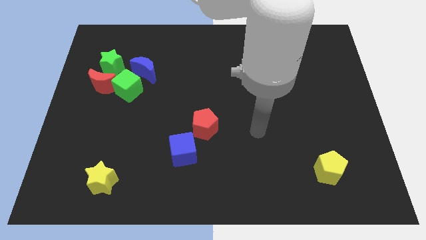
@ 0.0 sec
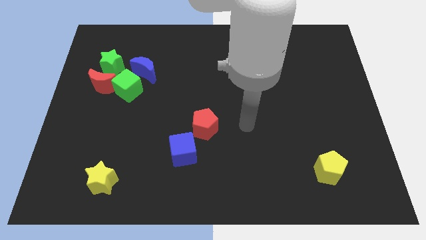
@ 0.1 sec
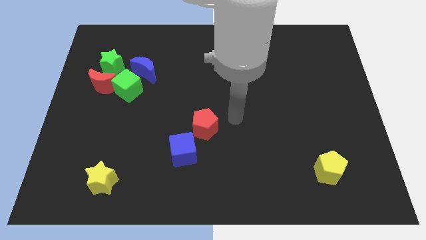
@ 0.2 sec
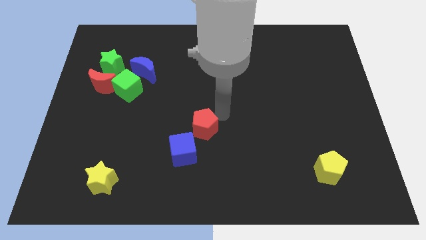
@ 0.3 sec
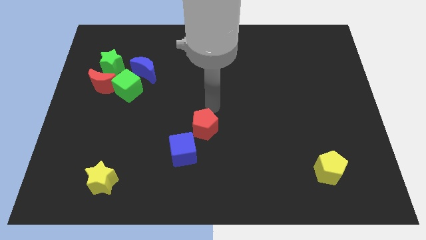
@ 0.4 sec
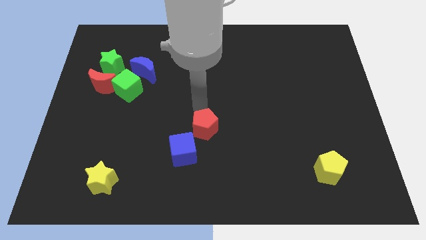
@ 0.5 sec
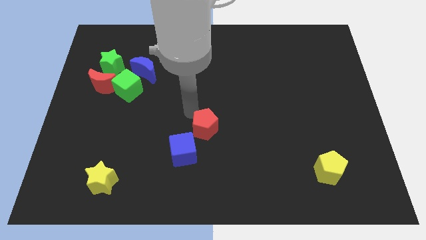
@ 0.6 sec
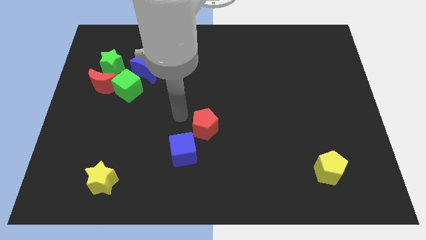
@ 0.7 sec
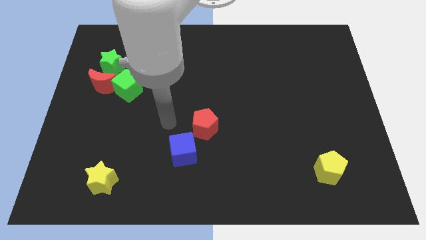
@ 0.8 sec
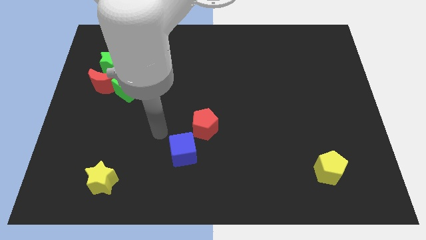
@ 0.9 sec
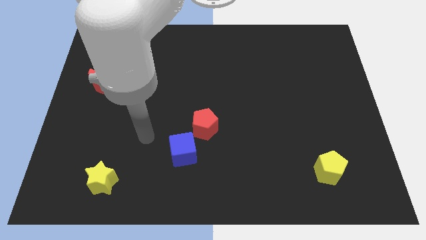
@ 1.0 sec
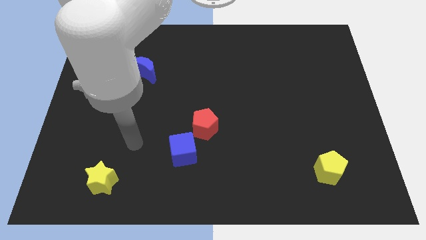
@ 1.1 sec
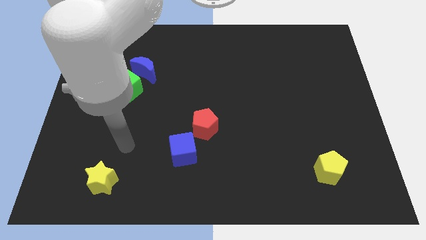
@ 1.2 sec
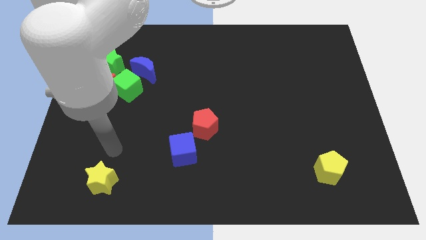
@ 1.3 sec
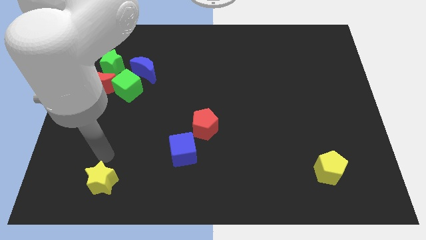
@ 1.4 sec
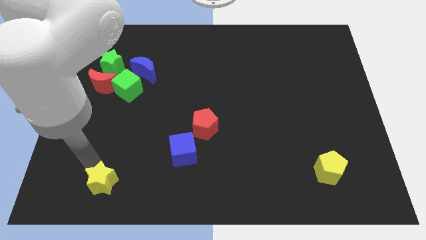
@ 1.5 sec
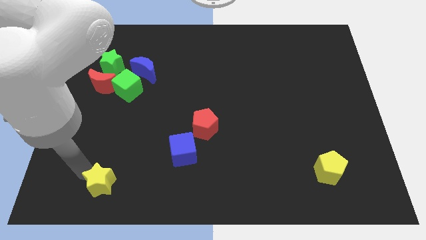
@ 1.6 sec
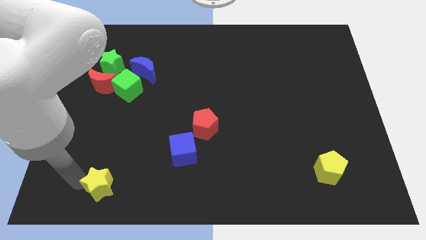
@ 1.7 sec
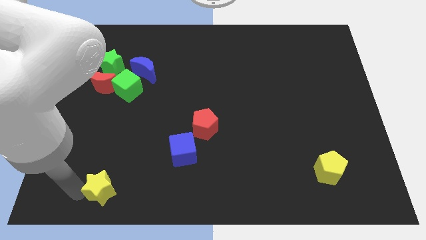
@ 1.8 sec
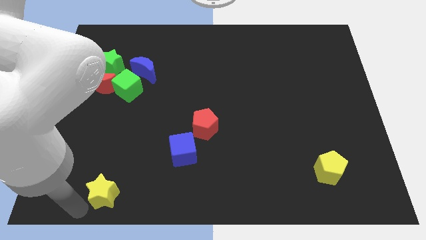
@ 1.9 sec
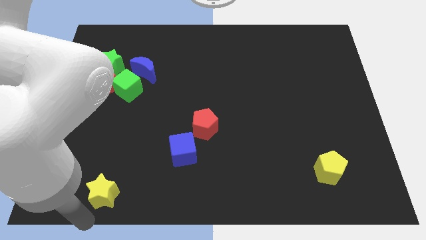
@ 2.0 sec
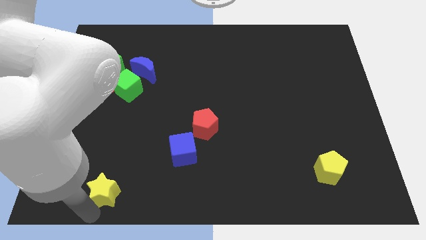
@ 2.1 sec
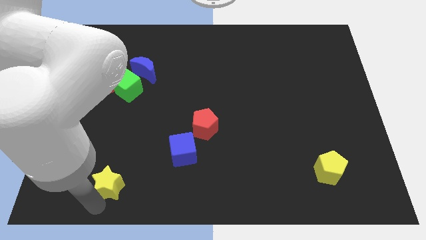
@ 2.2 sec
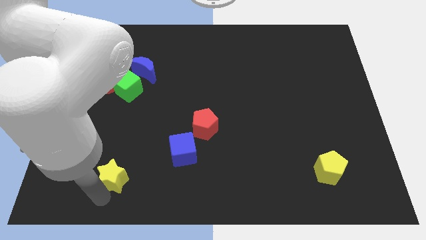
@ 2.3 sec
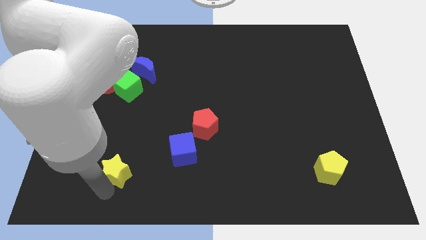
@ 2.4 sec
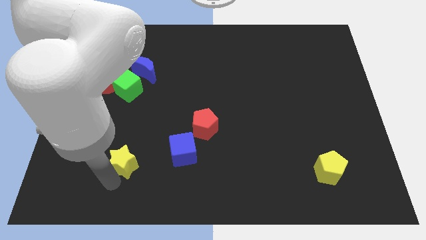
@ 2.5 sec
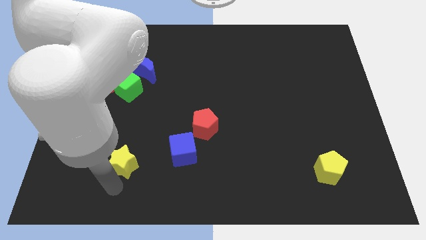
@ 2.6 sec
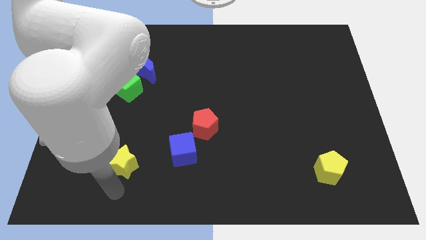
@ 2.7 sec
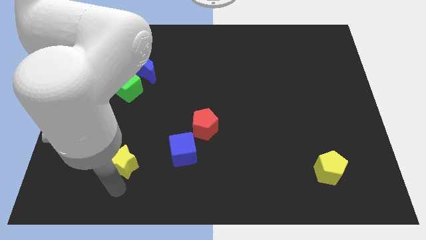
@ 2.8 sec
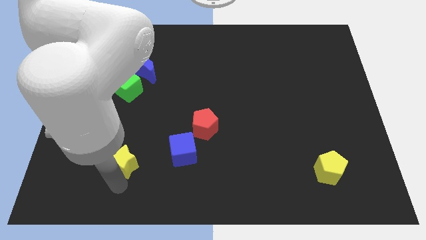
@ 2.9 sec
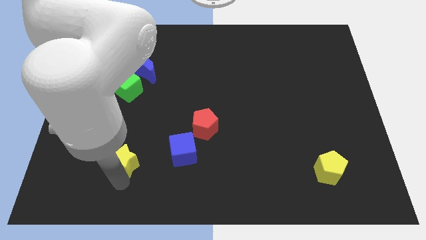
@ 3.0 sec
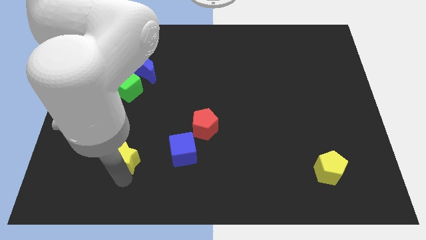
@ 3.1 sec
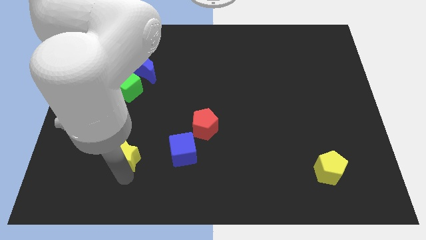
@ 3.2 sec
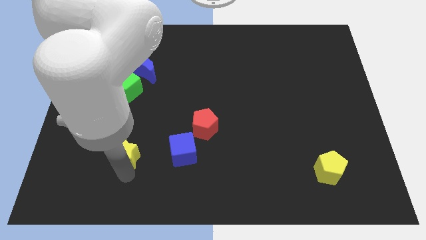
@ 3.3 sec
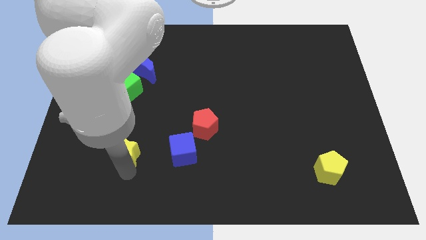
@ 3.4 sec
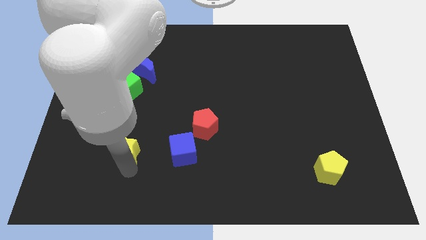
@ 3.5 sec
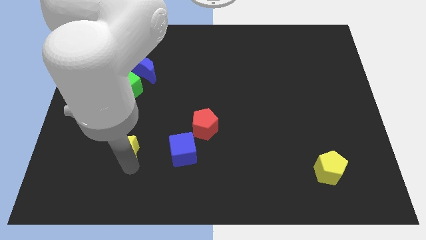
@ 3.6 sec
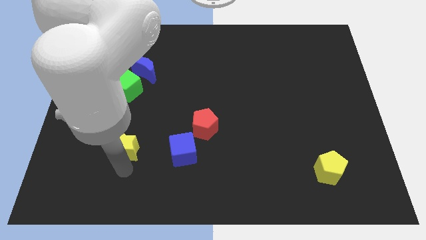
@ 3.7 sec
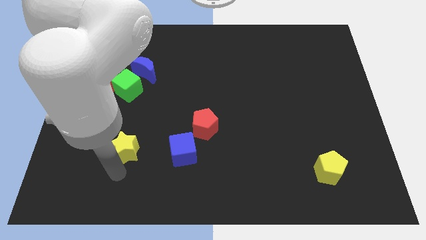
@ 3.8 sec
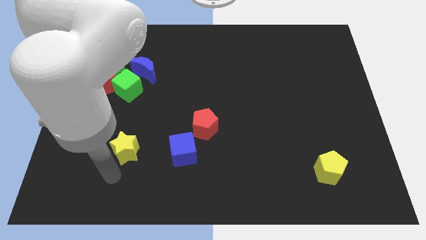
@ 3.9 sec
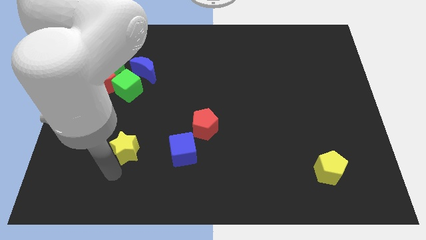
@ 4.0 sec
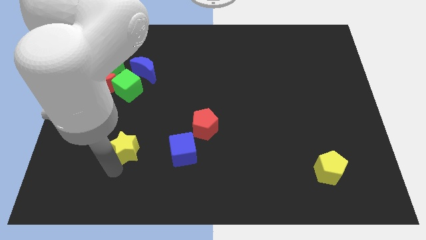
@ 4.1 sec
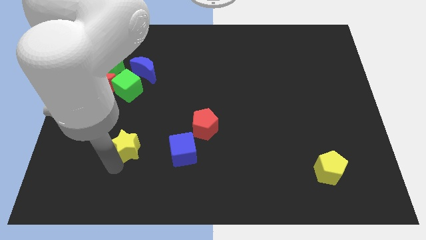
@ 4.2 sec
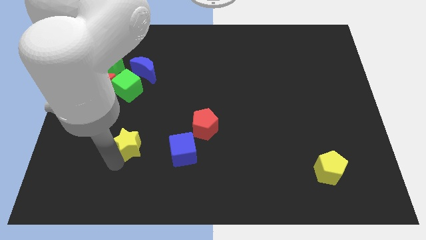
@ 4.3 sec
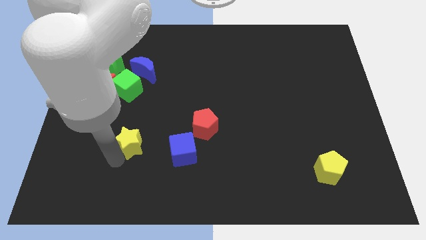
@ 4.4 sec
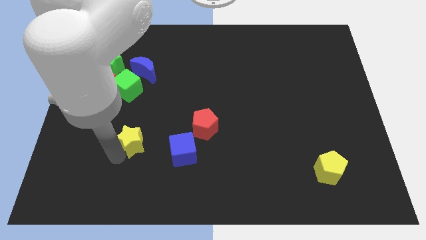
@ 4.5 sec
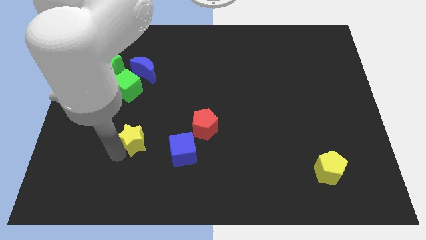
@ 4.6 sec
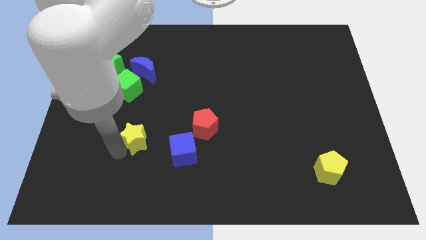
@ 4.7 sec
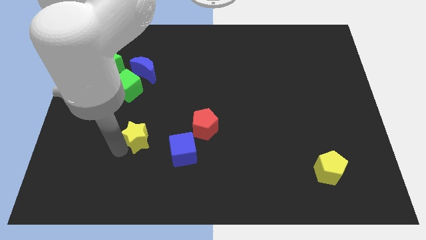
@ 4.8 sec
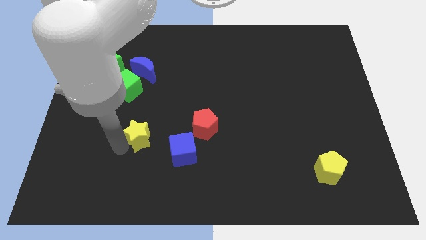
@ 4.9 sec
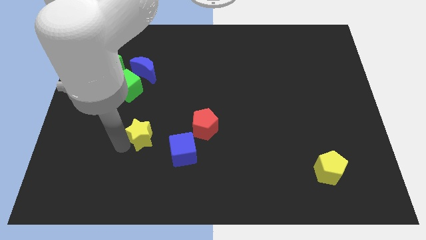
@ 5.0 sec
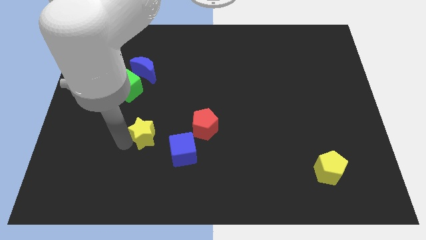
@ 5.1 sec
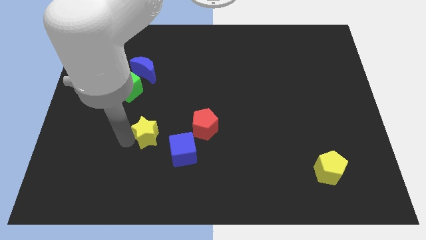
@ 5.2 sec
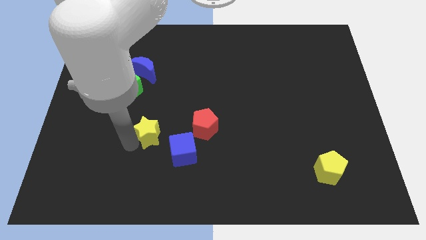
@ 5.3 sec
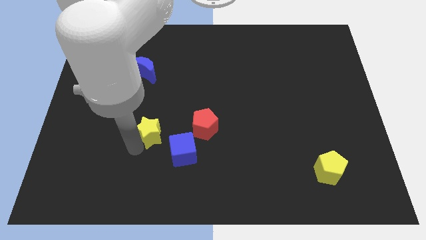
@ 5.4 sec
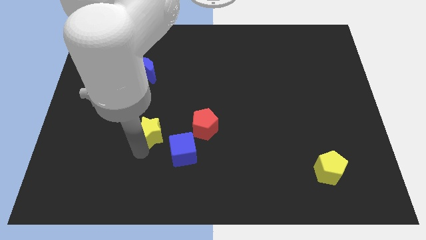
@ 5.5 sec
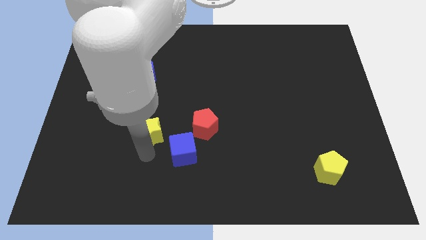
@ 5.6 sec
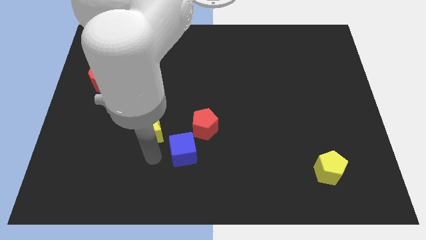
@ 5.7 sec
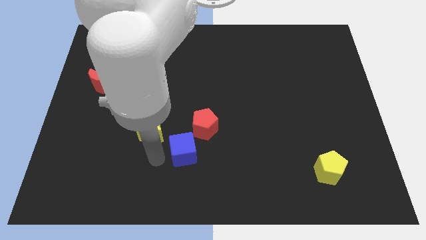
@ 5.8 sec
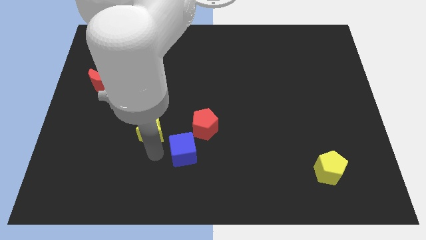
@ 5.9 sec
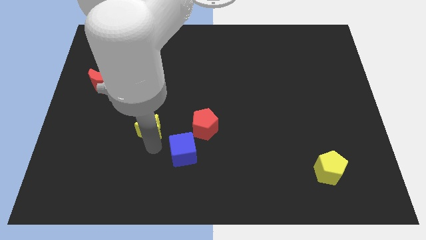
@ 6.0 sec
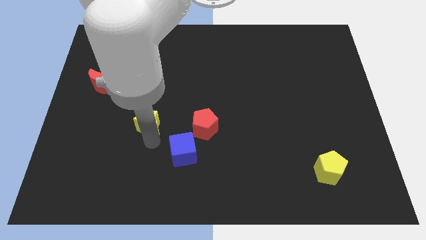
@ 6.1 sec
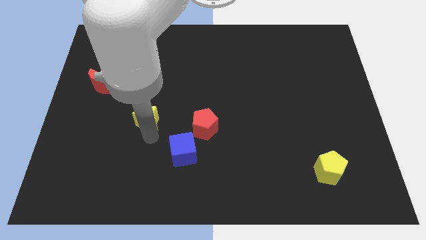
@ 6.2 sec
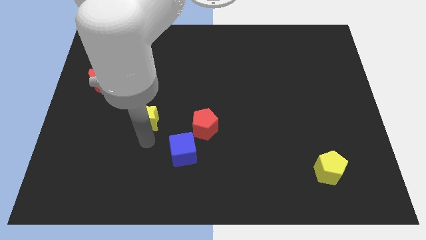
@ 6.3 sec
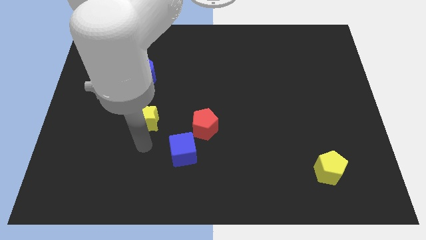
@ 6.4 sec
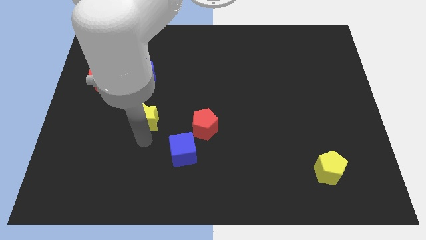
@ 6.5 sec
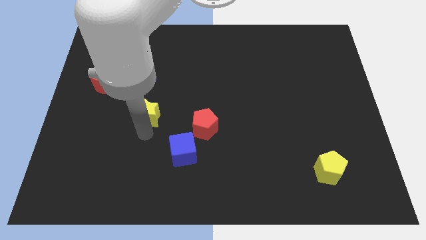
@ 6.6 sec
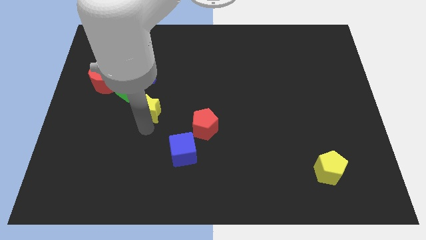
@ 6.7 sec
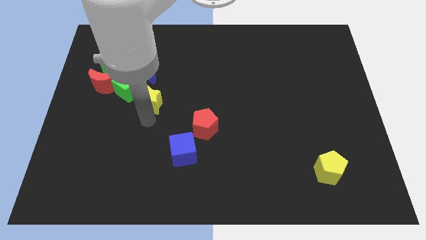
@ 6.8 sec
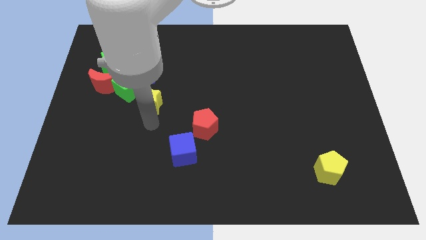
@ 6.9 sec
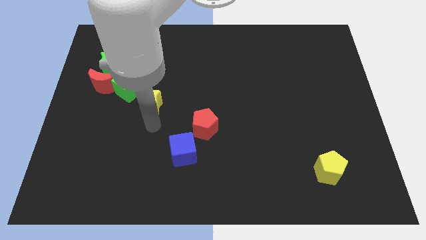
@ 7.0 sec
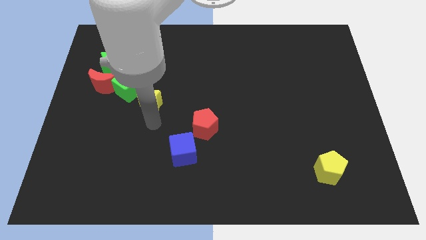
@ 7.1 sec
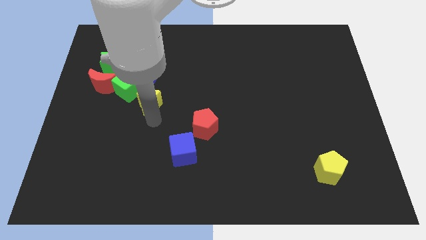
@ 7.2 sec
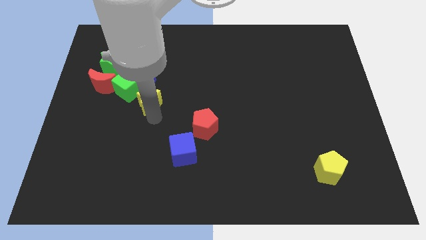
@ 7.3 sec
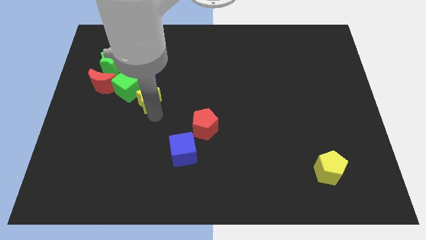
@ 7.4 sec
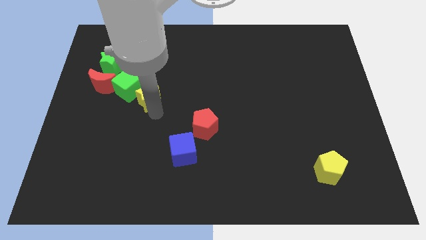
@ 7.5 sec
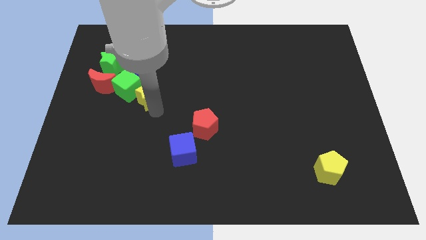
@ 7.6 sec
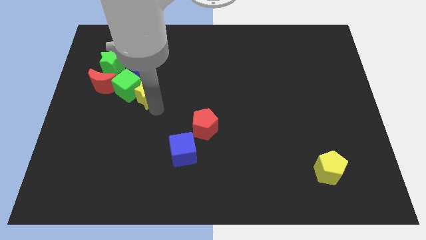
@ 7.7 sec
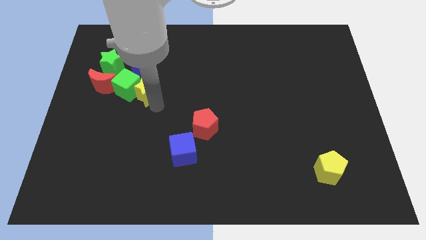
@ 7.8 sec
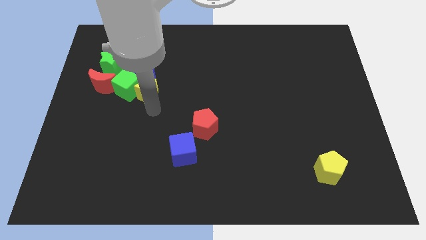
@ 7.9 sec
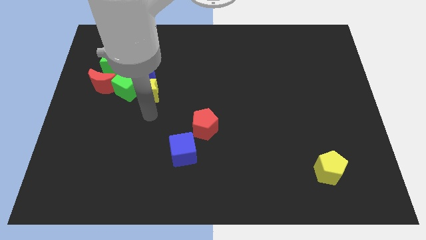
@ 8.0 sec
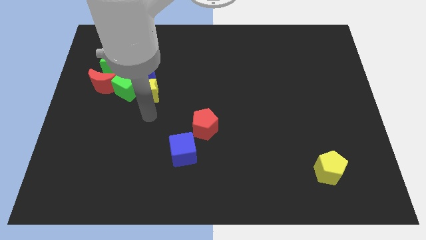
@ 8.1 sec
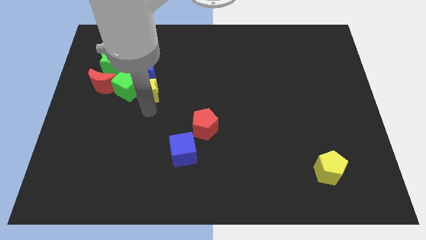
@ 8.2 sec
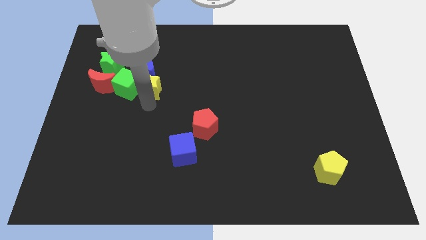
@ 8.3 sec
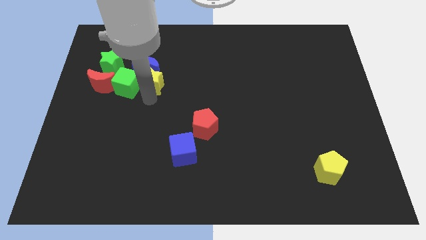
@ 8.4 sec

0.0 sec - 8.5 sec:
put the yellow star towards the blue moon
